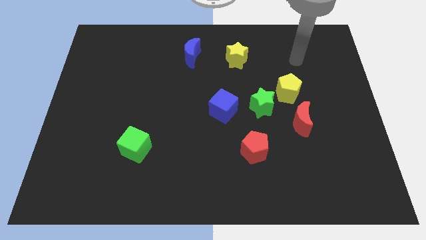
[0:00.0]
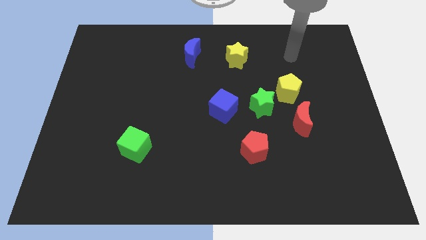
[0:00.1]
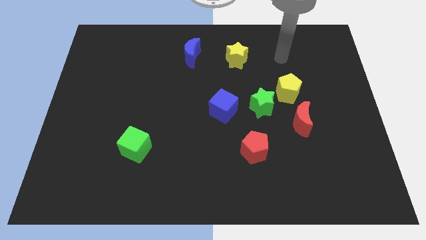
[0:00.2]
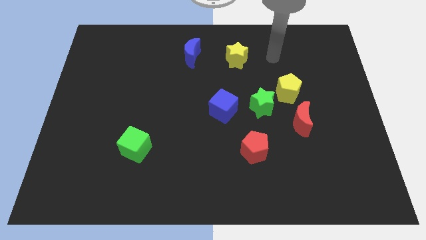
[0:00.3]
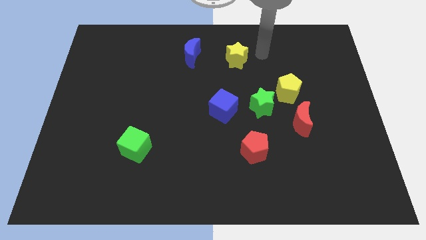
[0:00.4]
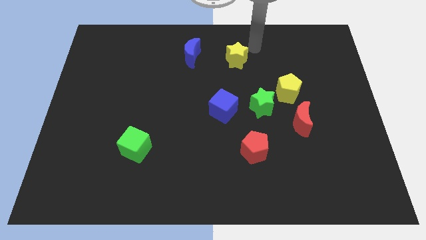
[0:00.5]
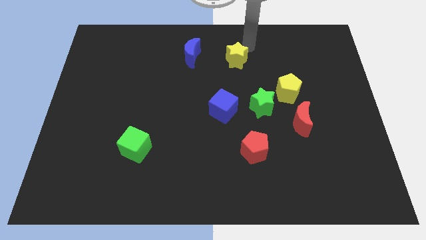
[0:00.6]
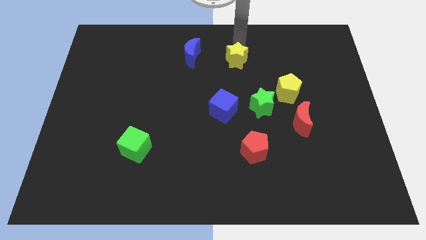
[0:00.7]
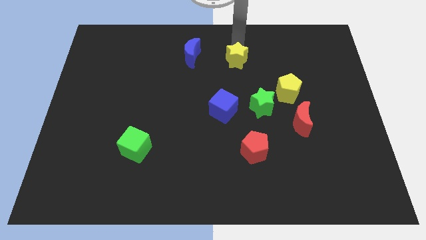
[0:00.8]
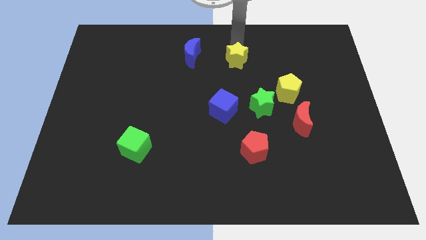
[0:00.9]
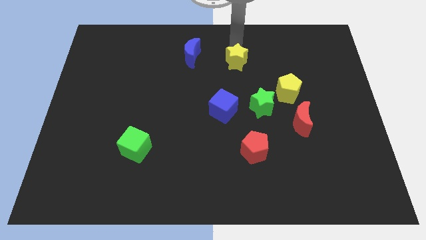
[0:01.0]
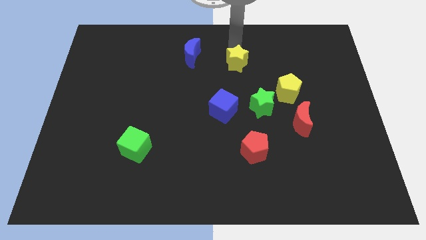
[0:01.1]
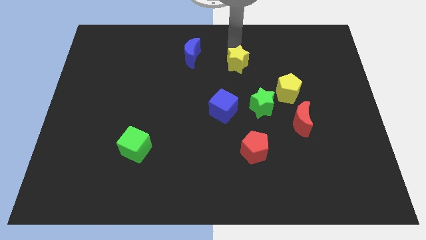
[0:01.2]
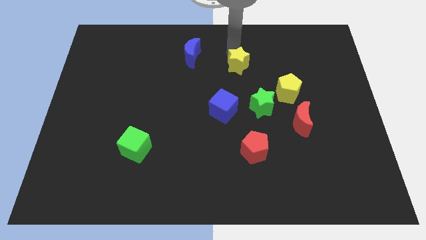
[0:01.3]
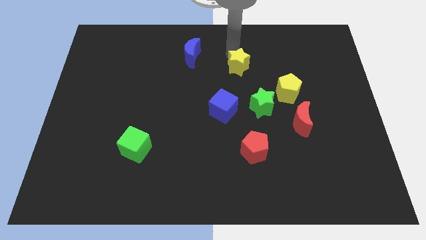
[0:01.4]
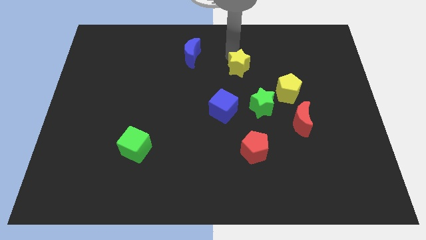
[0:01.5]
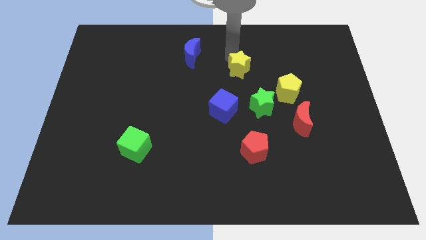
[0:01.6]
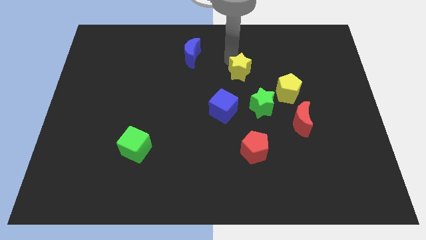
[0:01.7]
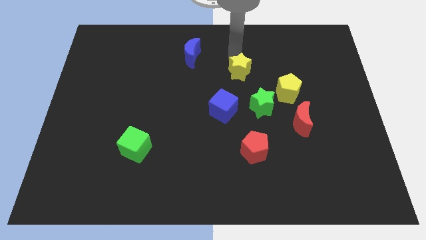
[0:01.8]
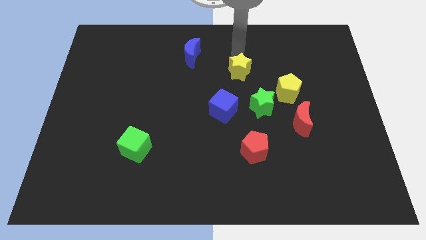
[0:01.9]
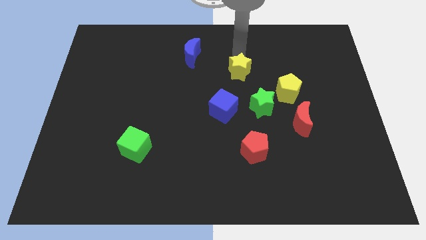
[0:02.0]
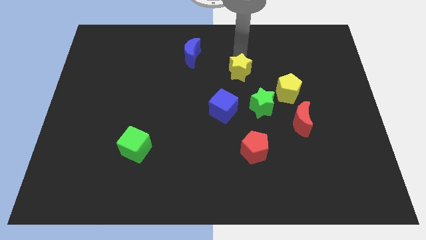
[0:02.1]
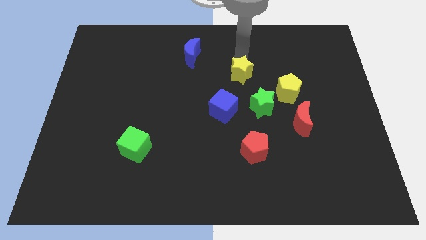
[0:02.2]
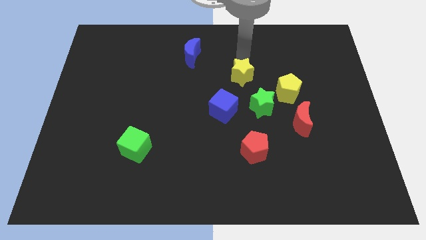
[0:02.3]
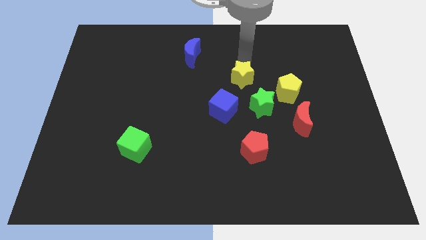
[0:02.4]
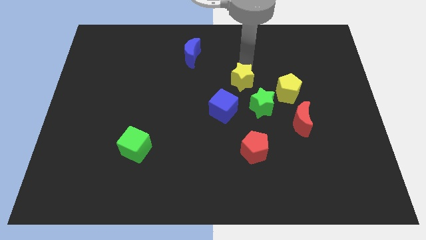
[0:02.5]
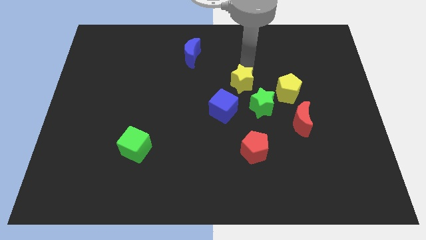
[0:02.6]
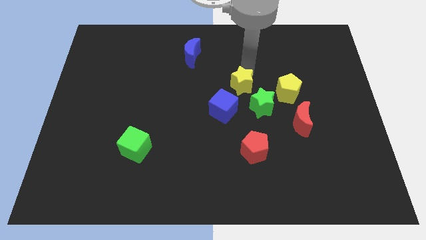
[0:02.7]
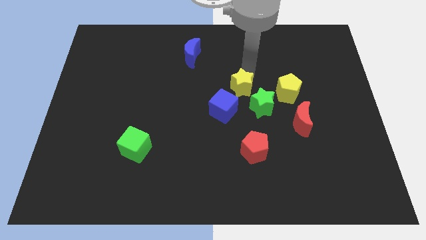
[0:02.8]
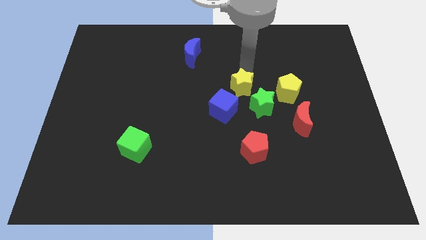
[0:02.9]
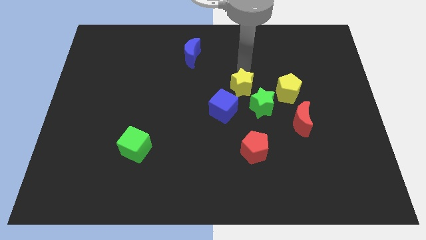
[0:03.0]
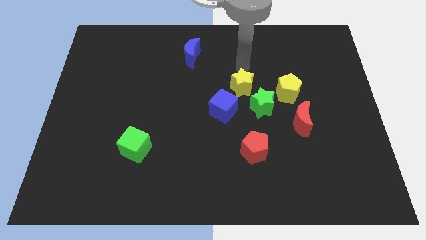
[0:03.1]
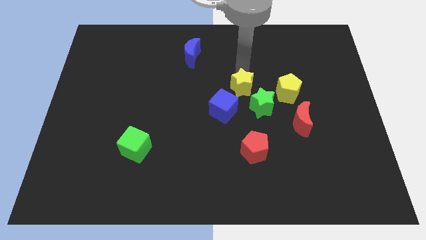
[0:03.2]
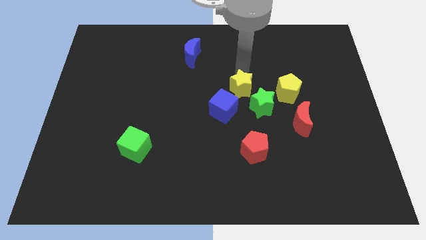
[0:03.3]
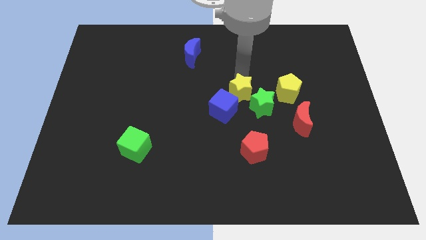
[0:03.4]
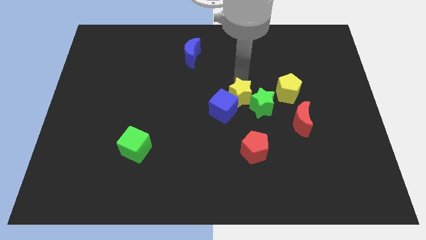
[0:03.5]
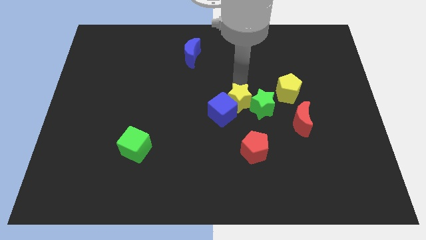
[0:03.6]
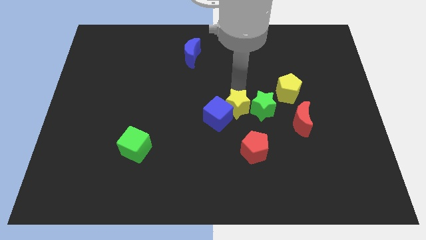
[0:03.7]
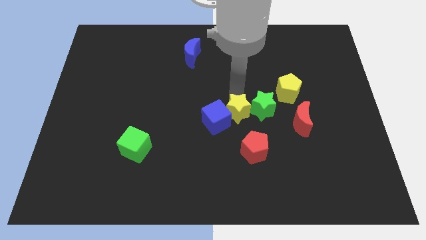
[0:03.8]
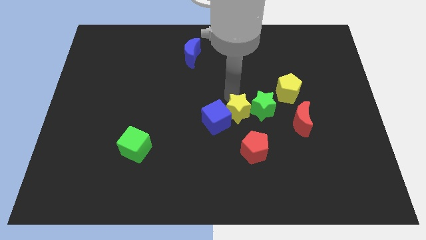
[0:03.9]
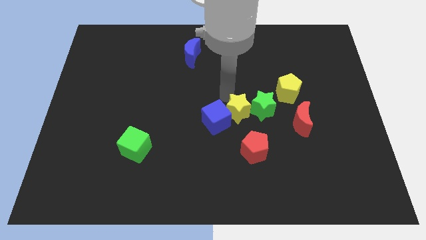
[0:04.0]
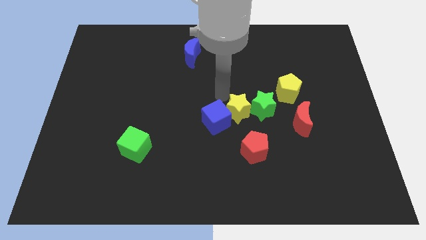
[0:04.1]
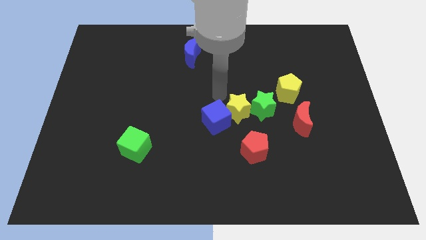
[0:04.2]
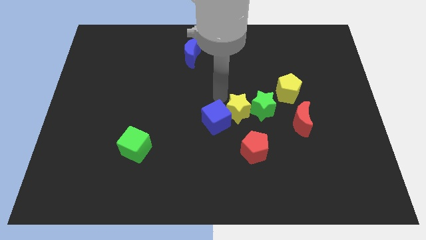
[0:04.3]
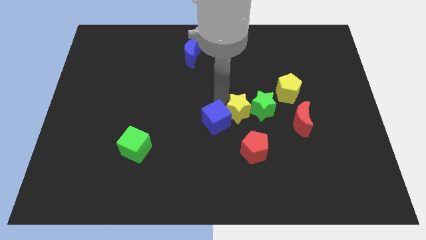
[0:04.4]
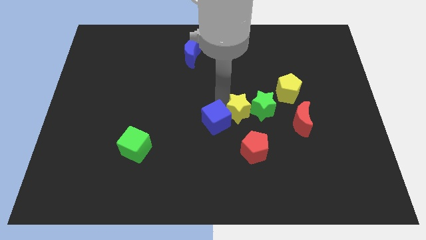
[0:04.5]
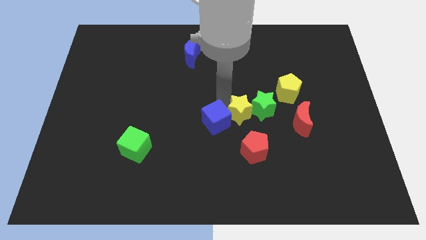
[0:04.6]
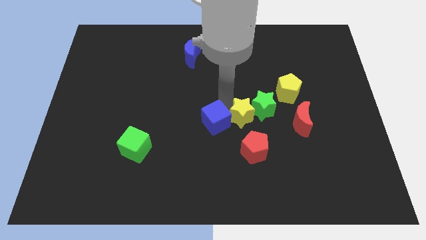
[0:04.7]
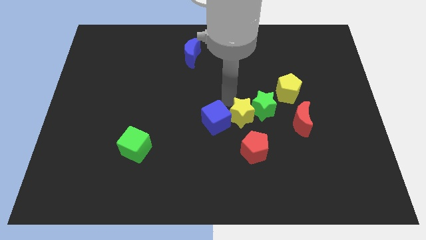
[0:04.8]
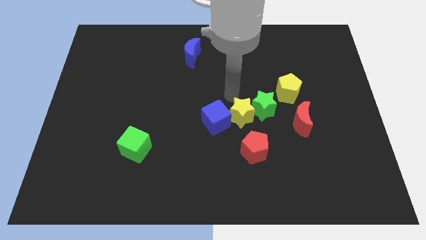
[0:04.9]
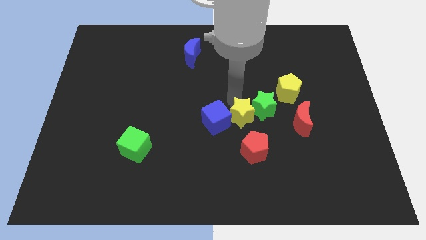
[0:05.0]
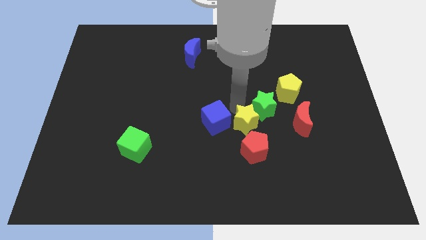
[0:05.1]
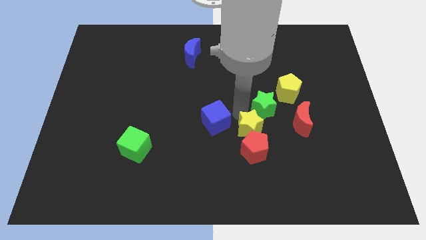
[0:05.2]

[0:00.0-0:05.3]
put the yellow star next to the red pentagon

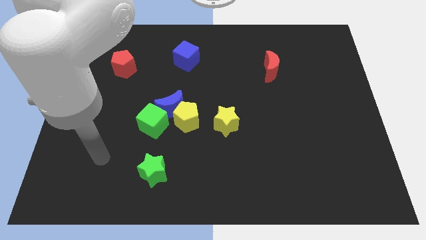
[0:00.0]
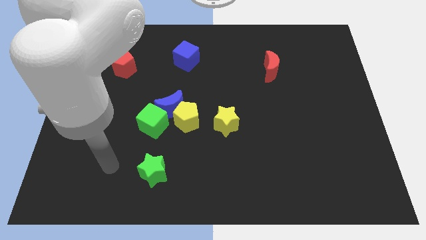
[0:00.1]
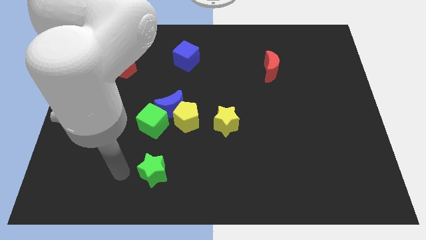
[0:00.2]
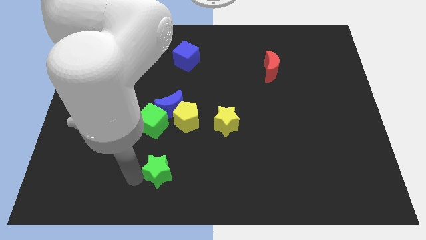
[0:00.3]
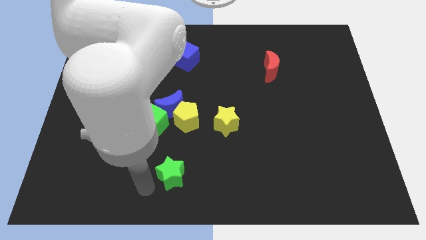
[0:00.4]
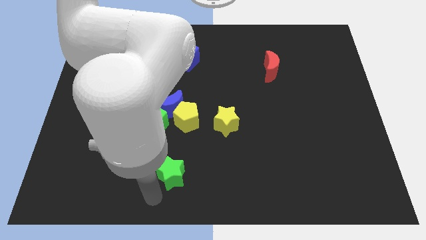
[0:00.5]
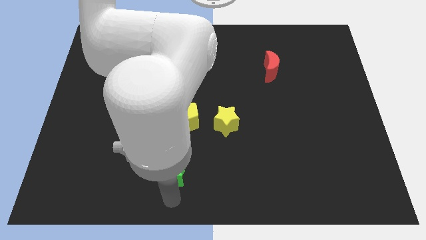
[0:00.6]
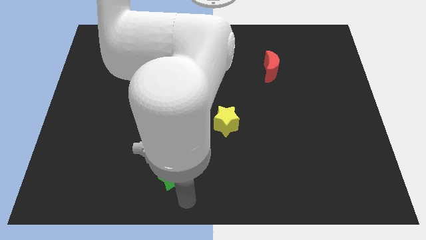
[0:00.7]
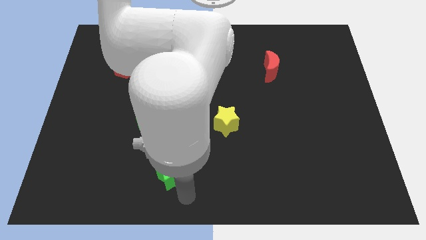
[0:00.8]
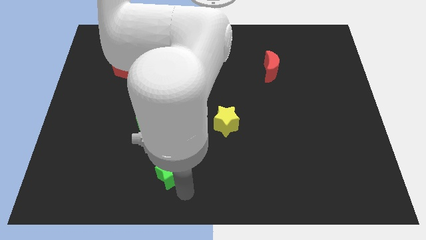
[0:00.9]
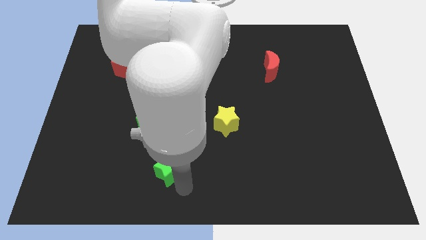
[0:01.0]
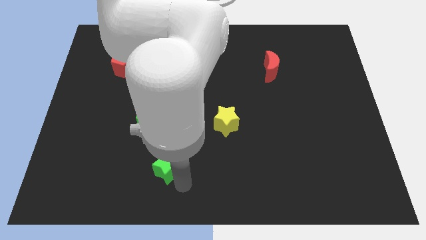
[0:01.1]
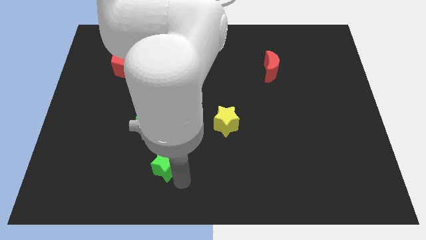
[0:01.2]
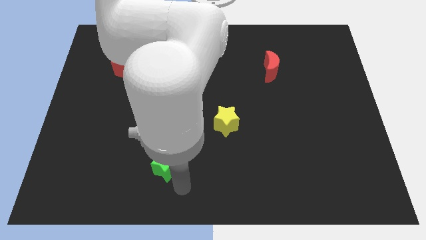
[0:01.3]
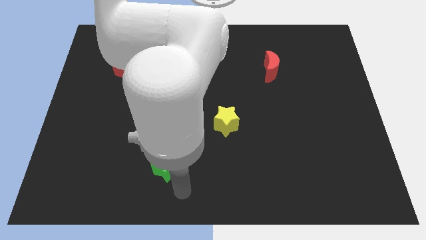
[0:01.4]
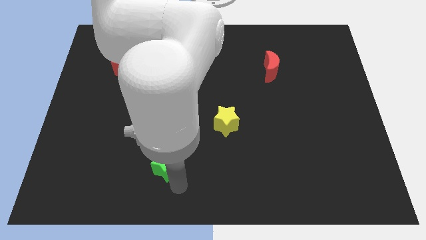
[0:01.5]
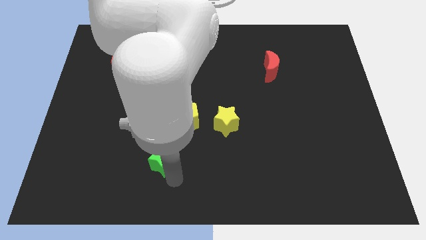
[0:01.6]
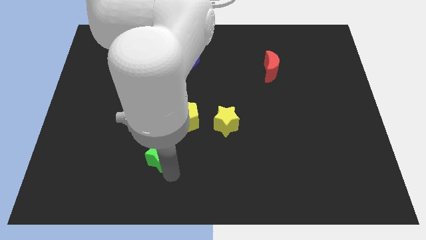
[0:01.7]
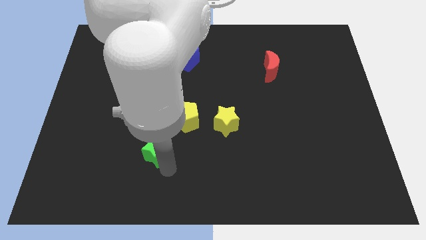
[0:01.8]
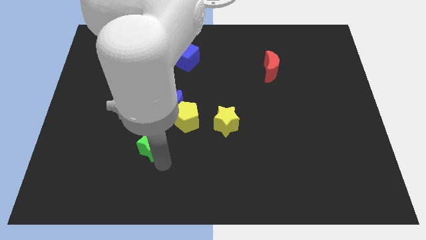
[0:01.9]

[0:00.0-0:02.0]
move the green star towards the green cube
